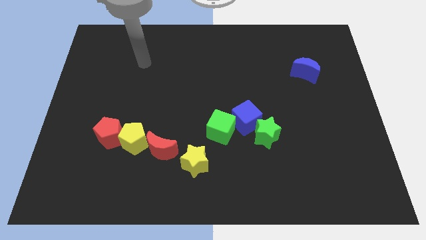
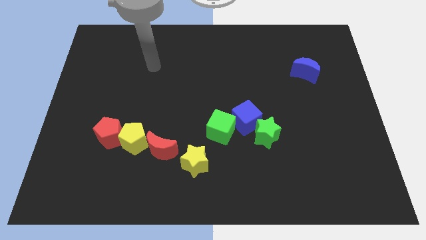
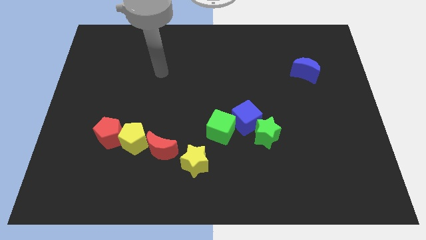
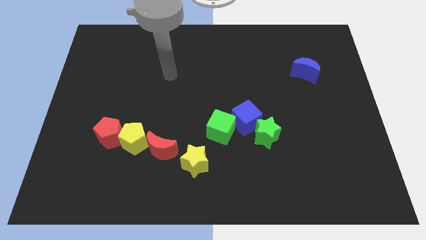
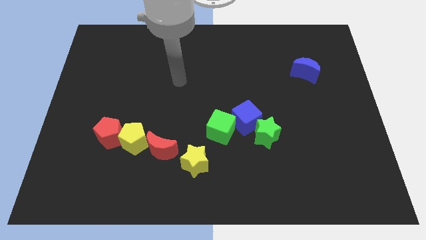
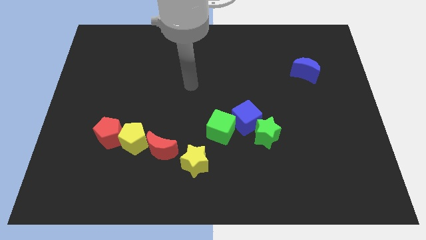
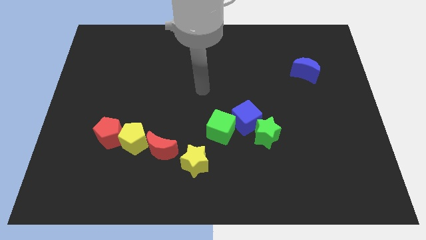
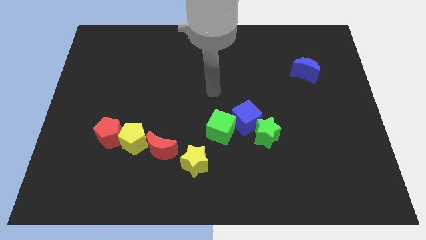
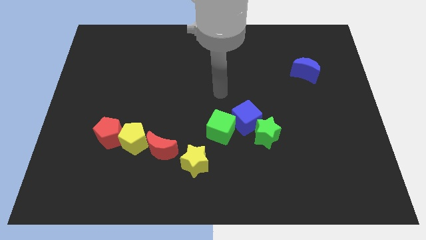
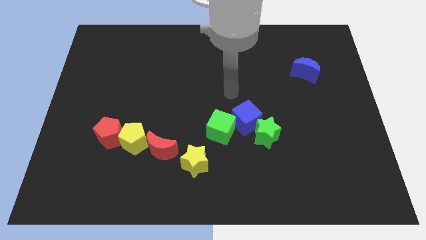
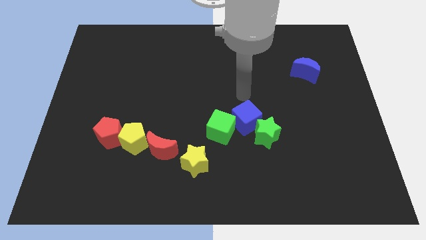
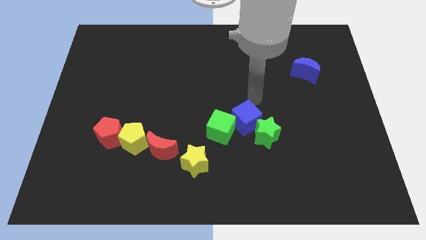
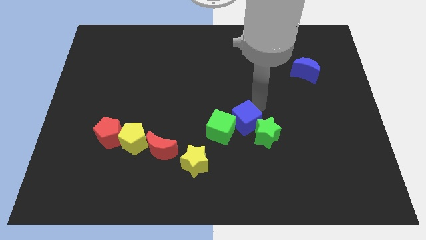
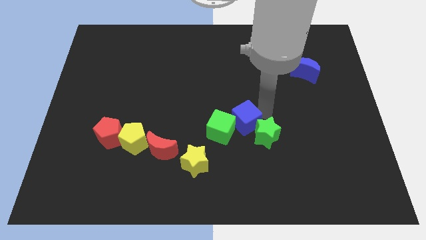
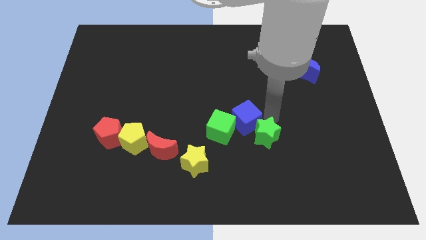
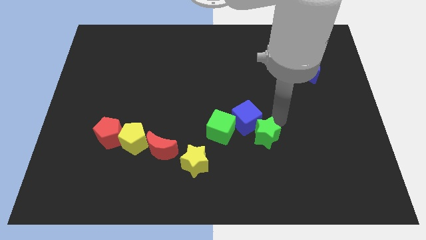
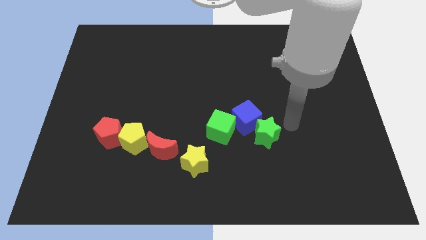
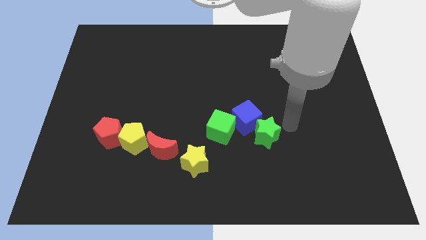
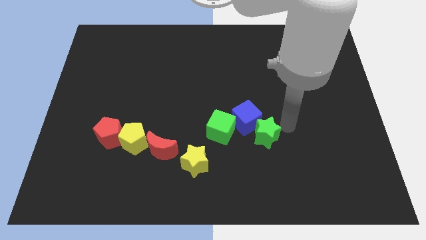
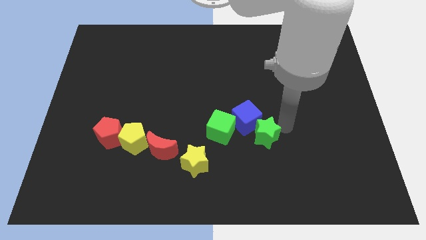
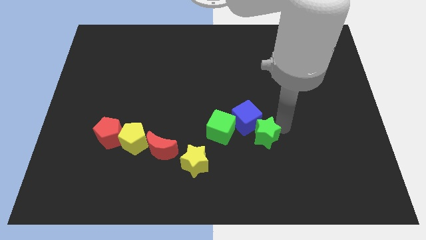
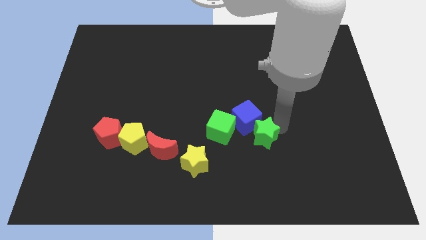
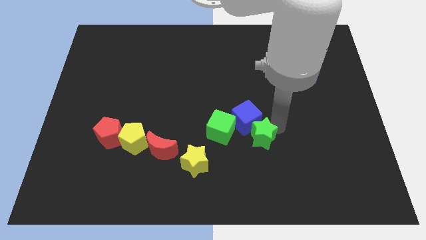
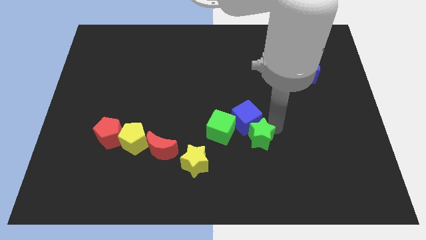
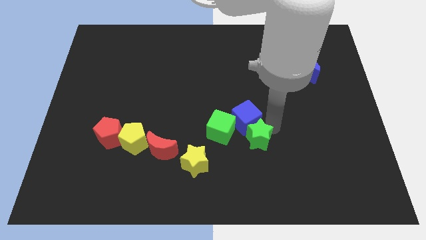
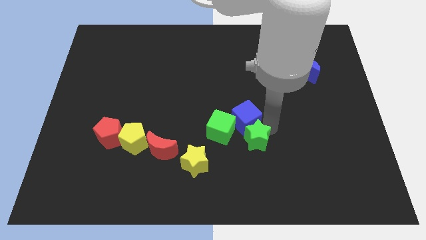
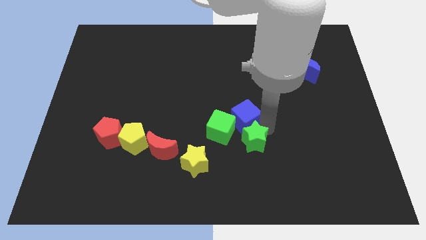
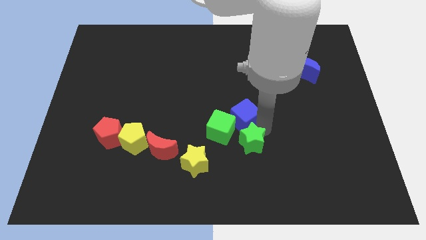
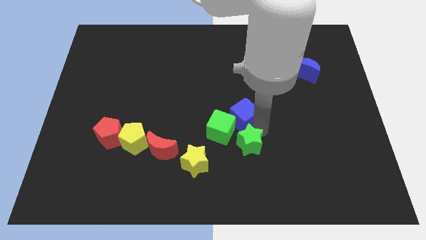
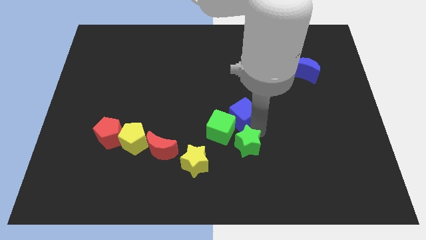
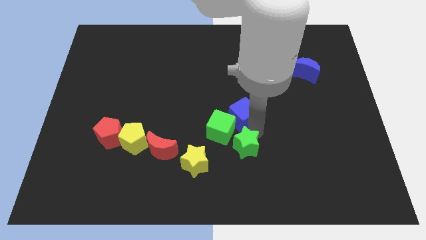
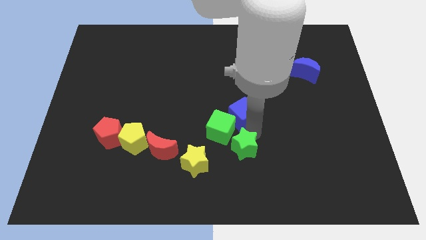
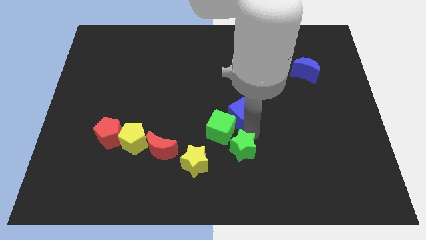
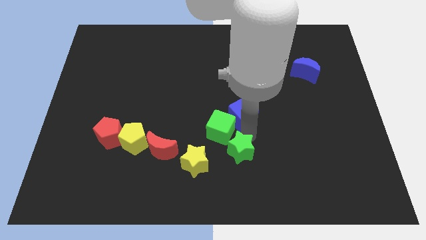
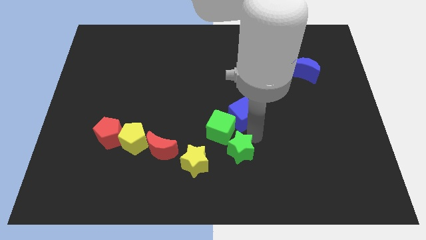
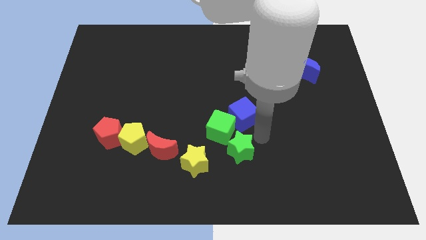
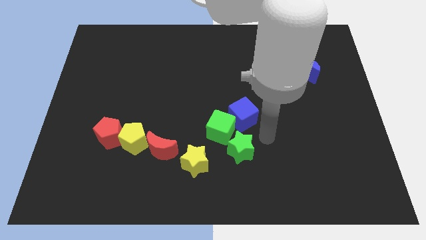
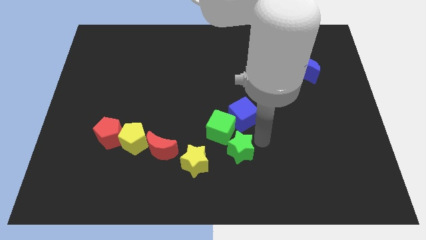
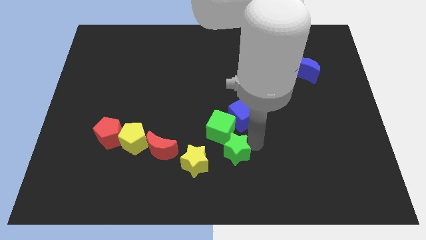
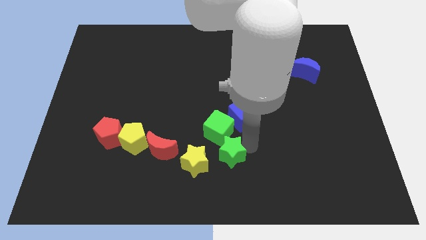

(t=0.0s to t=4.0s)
slide the green star to the left slightly

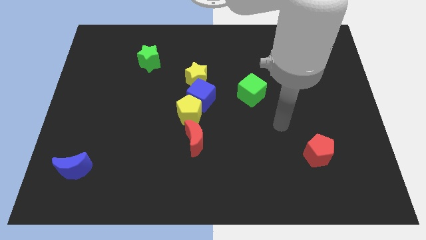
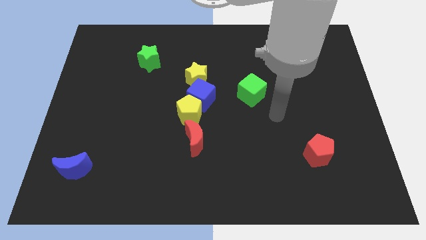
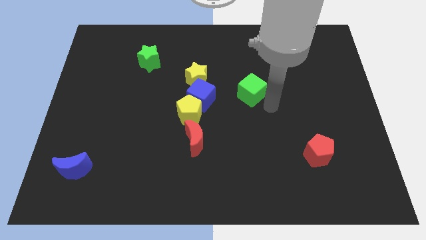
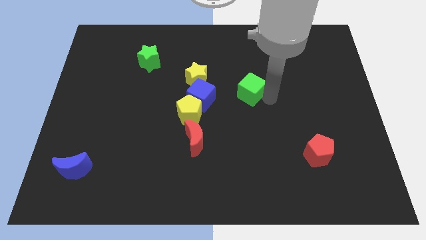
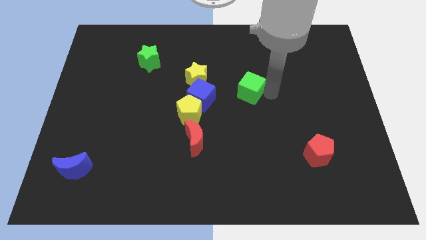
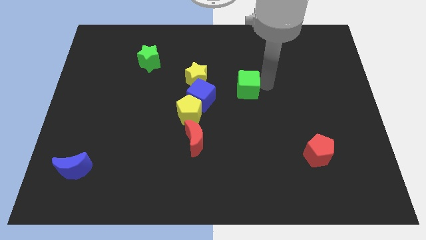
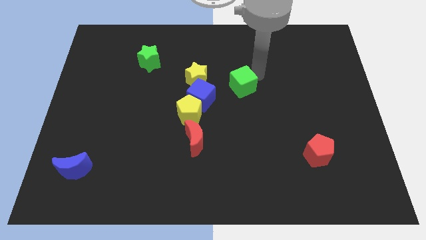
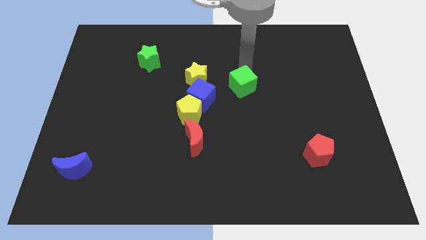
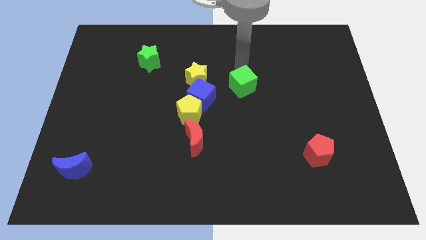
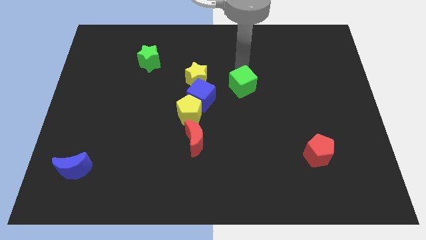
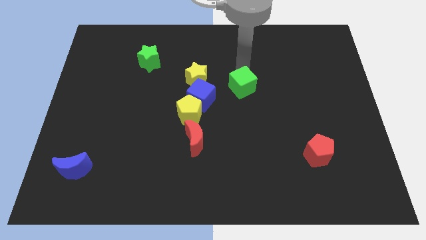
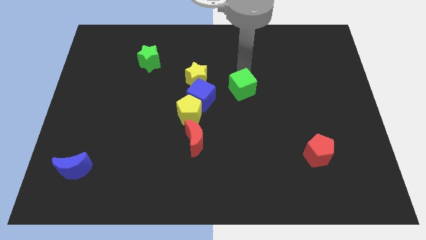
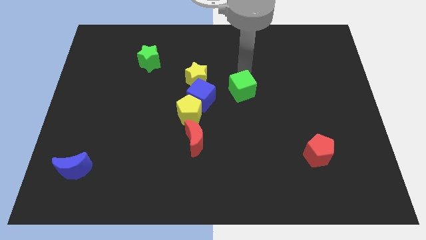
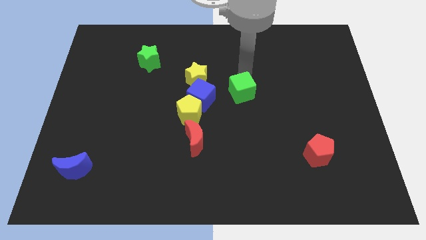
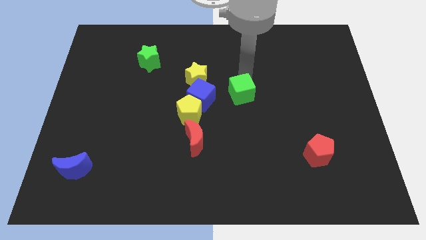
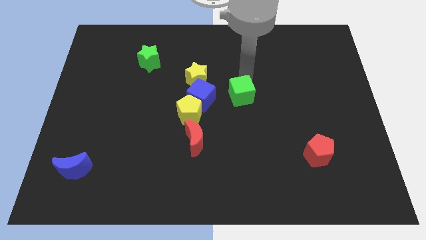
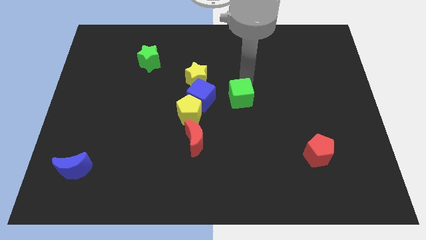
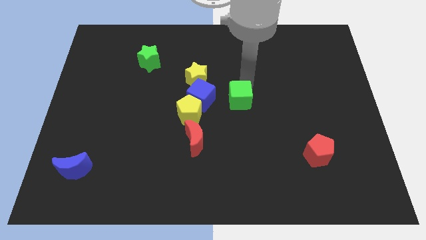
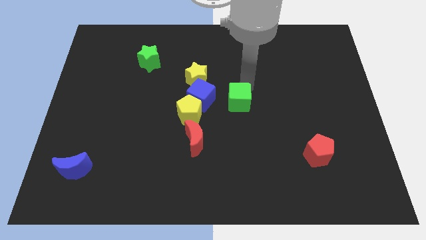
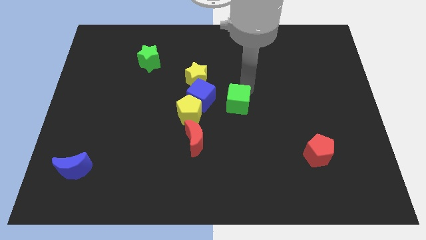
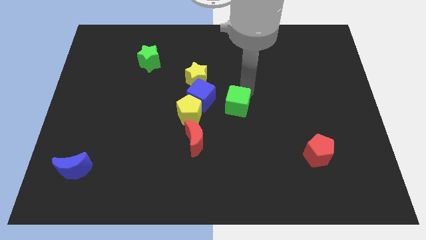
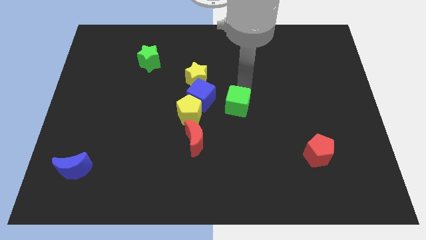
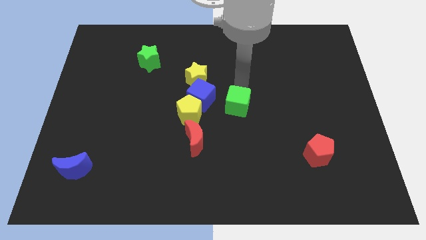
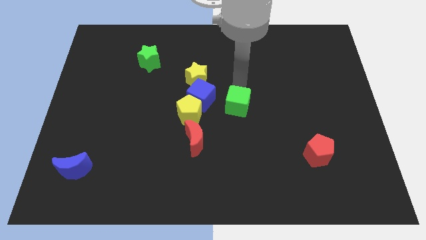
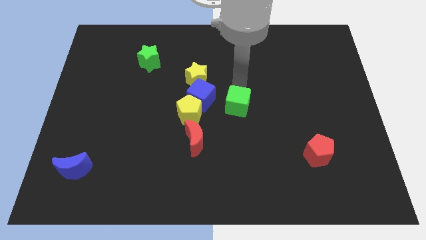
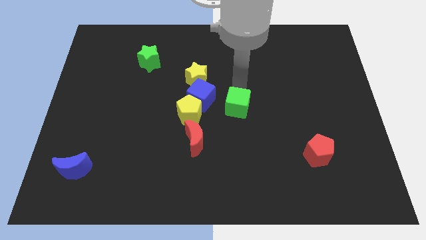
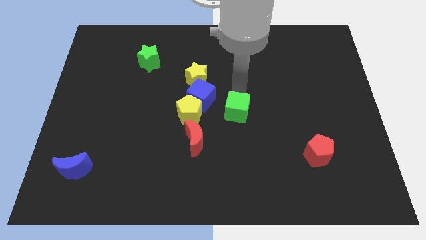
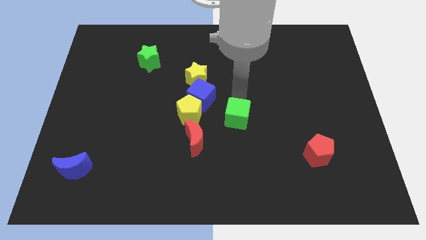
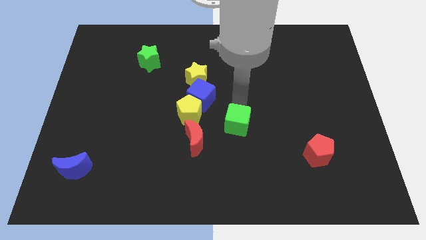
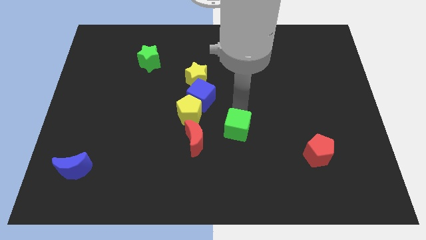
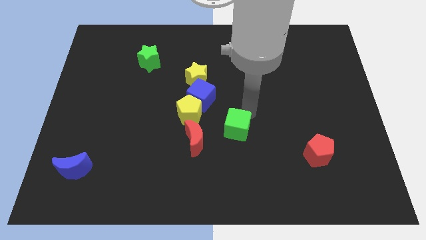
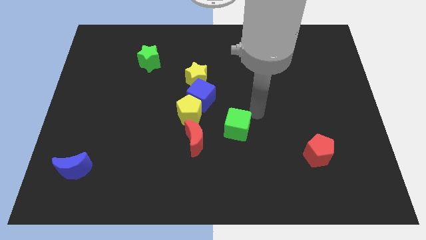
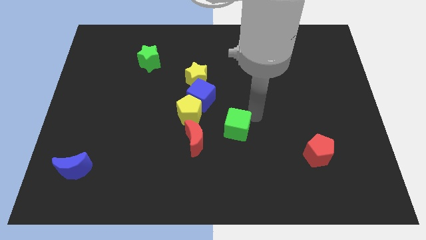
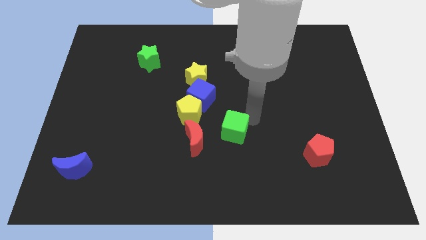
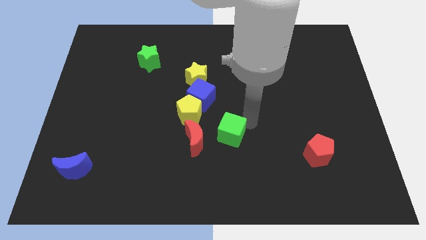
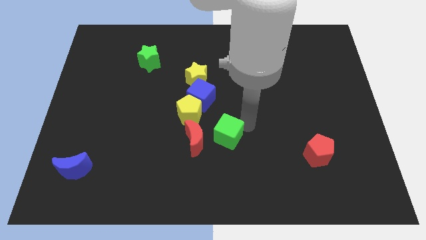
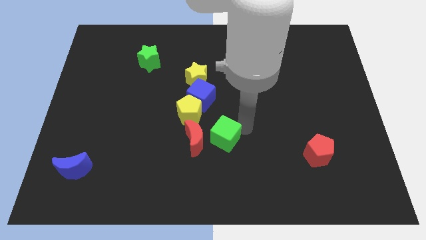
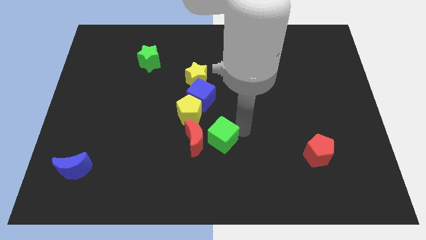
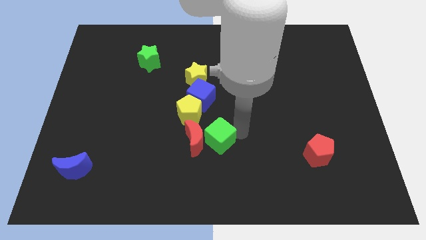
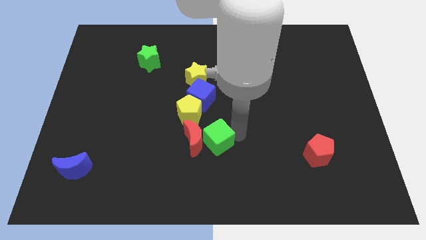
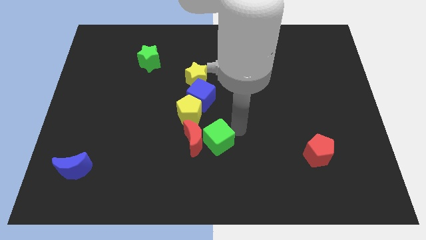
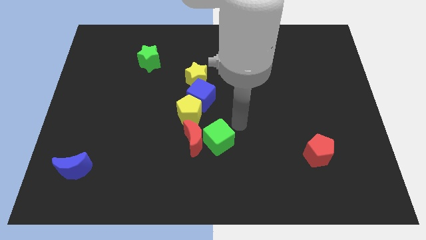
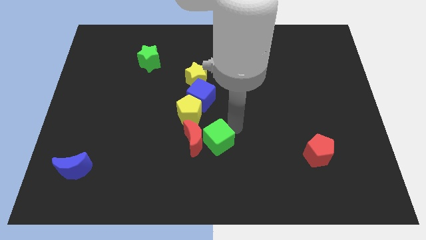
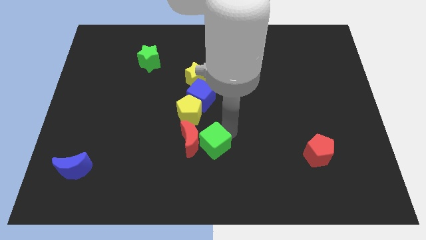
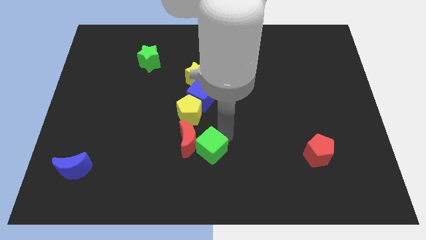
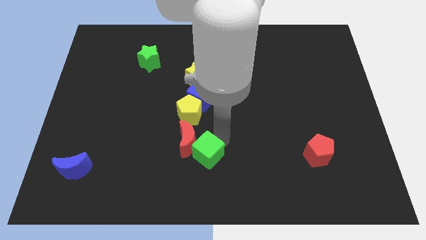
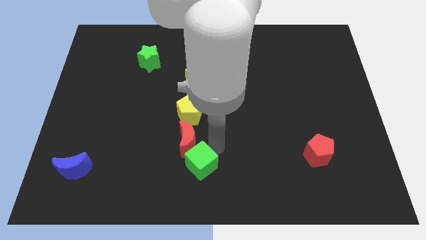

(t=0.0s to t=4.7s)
push the green cube downwards and left diagonally
